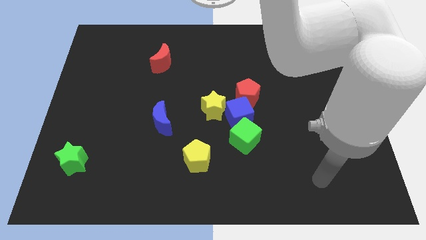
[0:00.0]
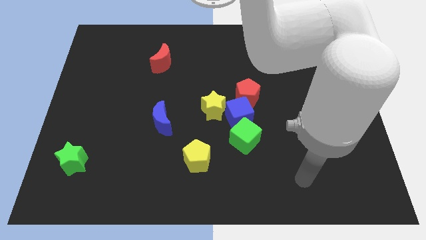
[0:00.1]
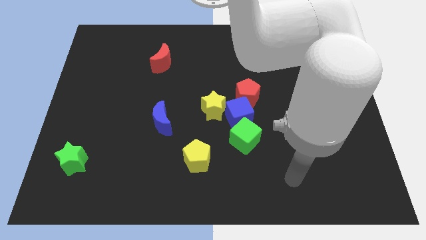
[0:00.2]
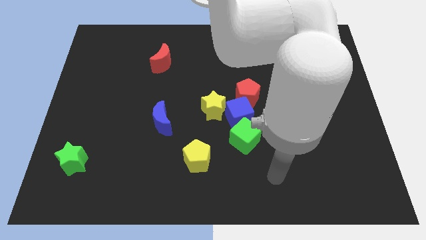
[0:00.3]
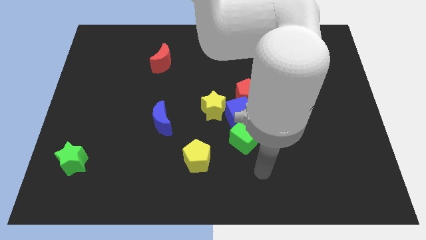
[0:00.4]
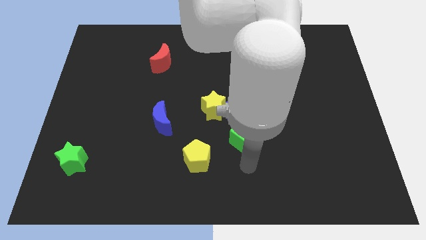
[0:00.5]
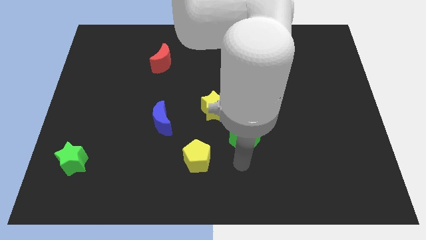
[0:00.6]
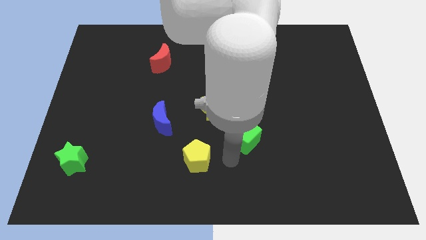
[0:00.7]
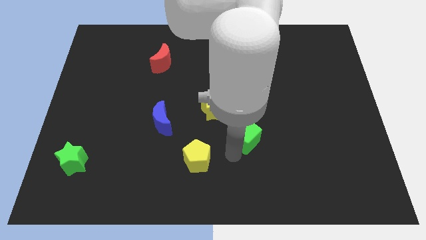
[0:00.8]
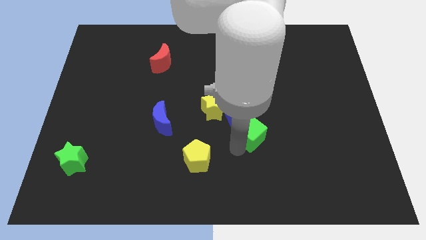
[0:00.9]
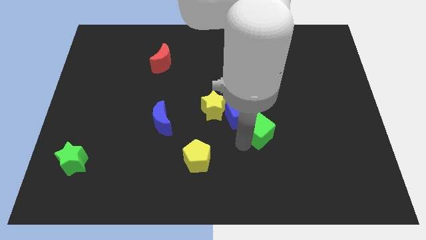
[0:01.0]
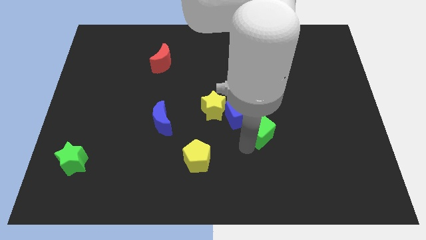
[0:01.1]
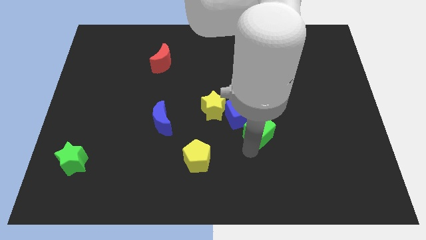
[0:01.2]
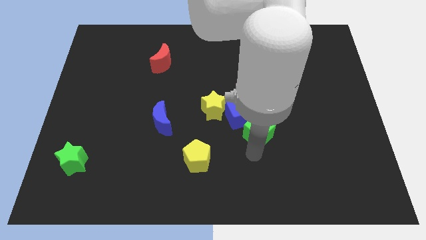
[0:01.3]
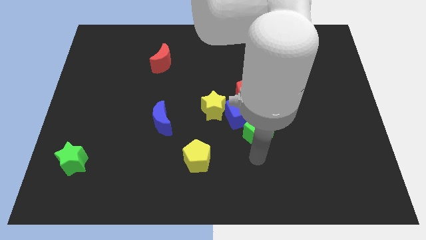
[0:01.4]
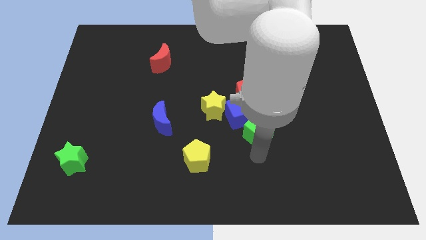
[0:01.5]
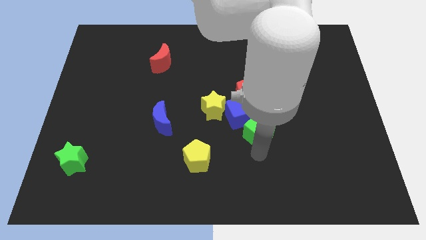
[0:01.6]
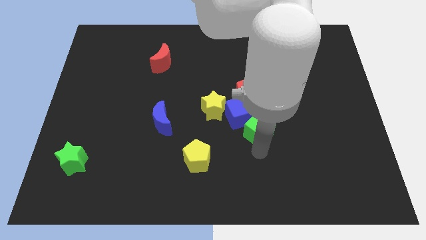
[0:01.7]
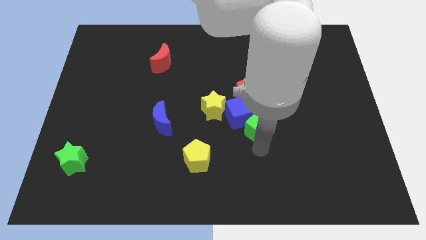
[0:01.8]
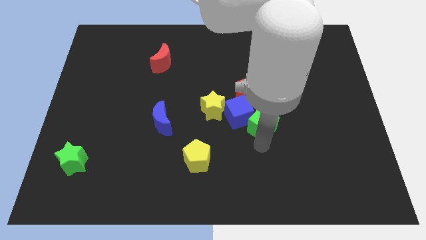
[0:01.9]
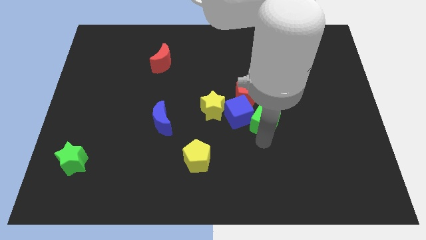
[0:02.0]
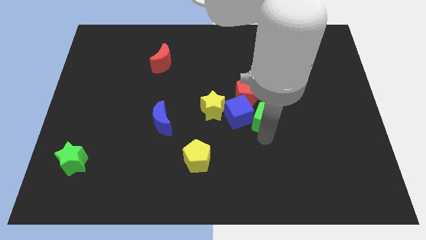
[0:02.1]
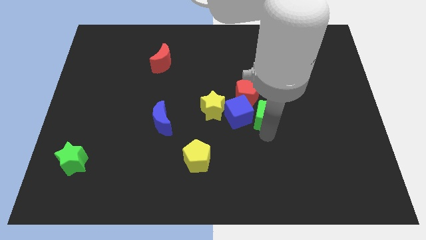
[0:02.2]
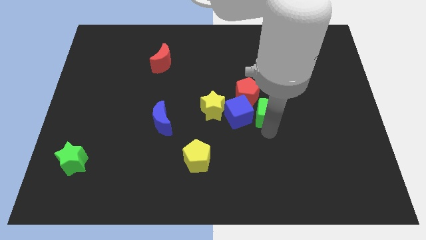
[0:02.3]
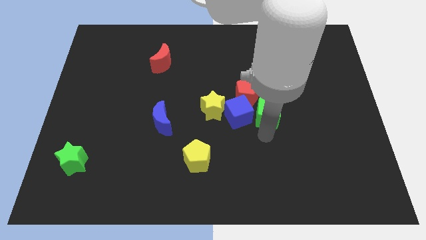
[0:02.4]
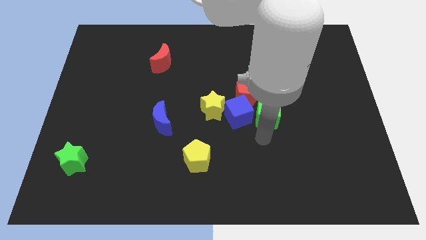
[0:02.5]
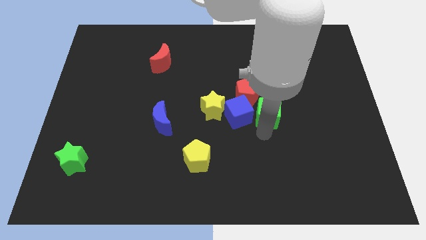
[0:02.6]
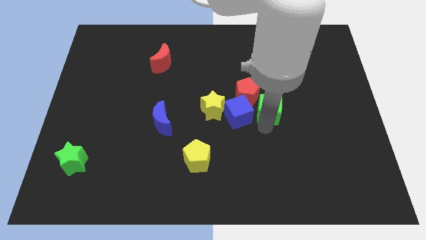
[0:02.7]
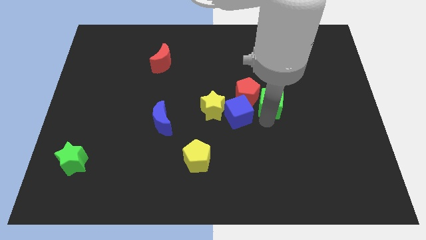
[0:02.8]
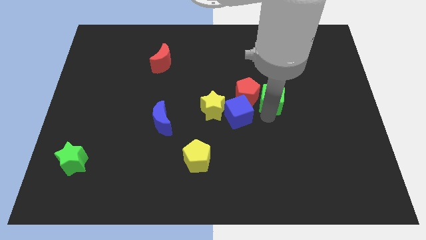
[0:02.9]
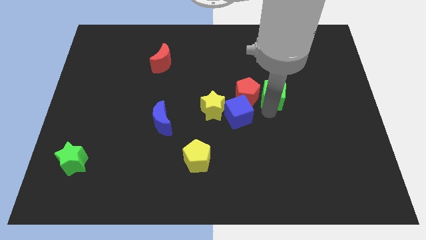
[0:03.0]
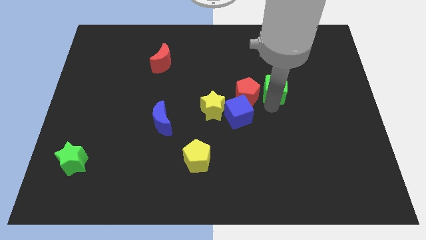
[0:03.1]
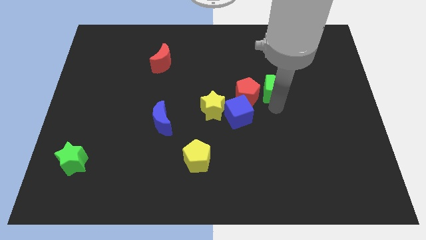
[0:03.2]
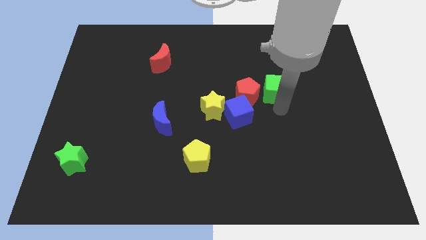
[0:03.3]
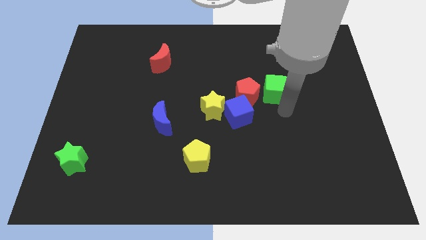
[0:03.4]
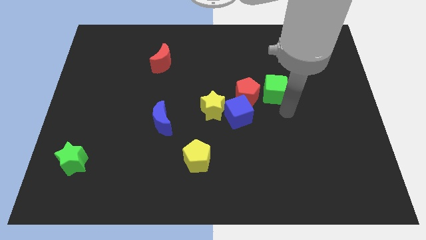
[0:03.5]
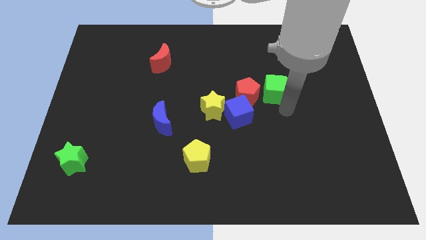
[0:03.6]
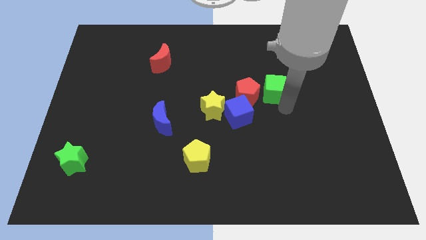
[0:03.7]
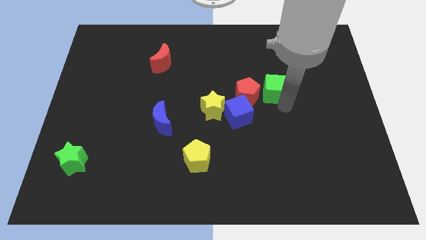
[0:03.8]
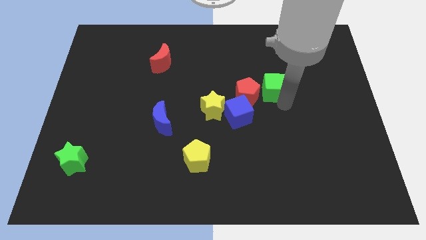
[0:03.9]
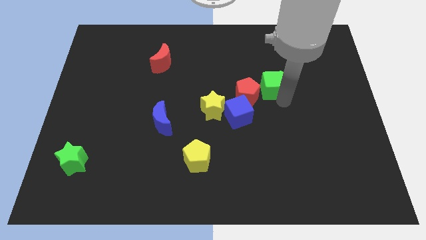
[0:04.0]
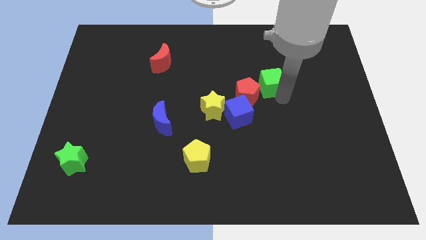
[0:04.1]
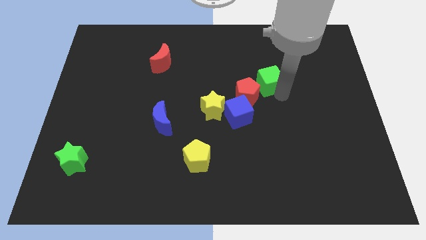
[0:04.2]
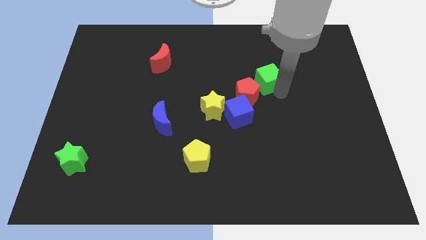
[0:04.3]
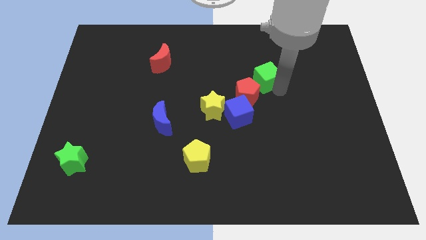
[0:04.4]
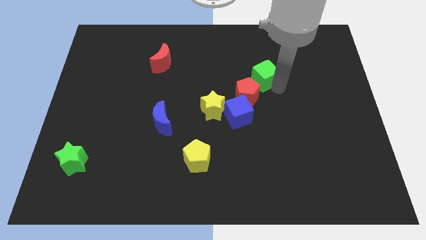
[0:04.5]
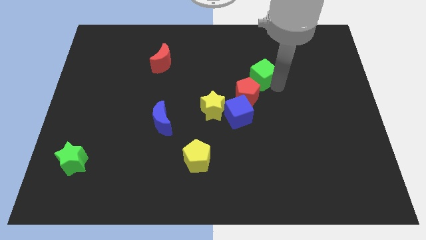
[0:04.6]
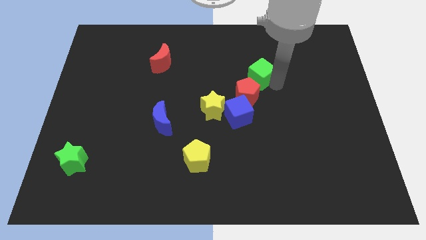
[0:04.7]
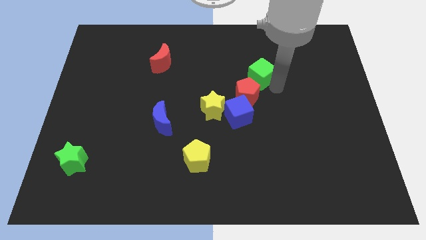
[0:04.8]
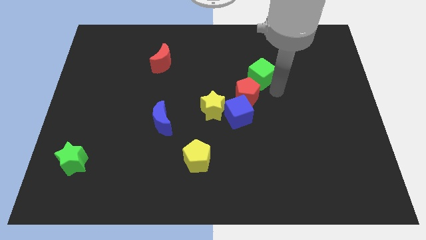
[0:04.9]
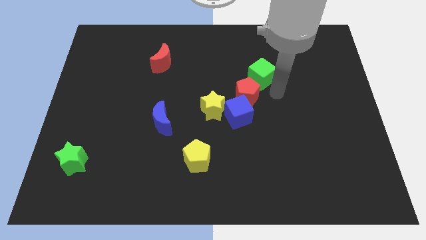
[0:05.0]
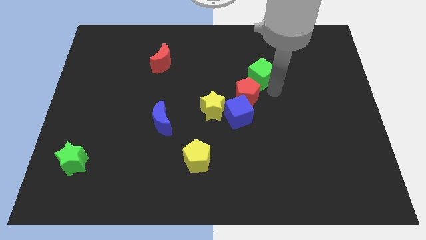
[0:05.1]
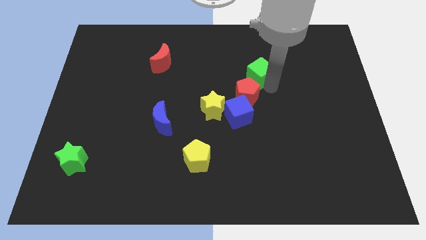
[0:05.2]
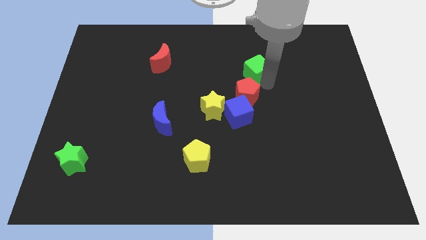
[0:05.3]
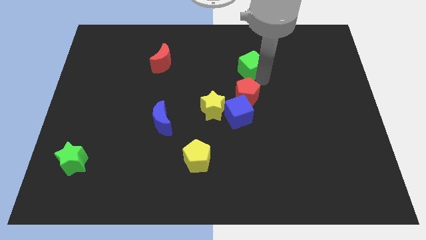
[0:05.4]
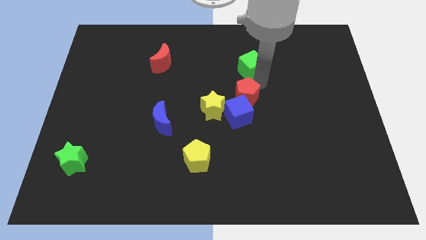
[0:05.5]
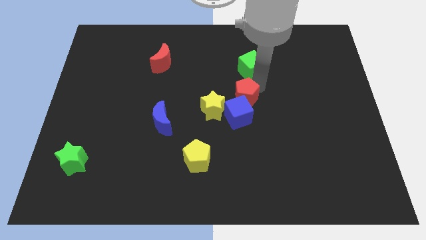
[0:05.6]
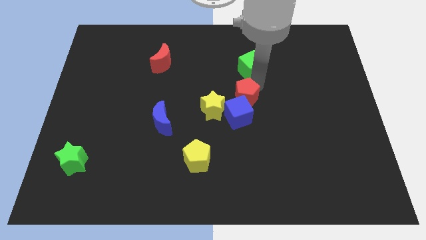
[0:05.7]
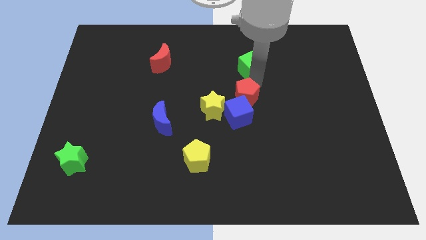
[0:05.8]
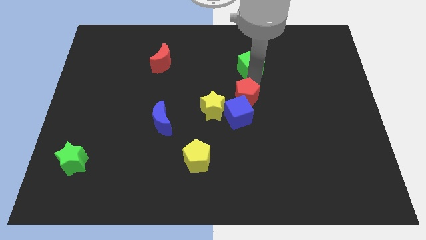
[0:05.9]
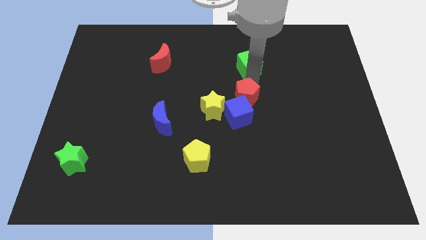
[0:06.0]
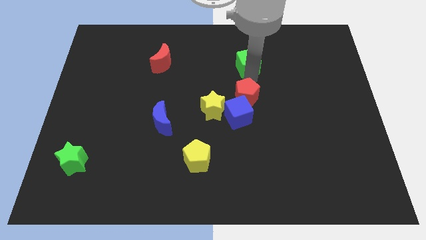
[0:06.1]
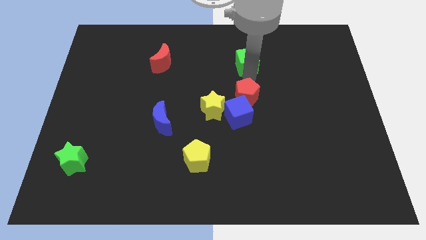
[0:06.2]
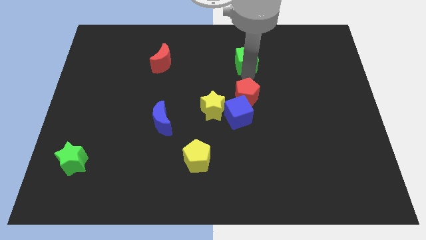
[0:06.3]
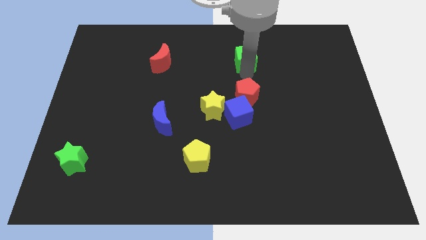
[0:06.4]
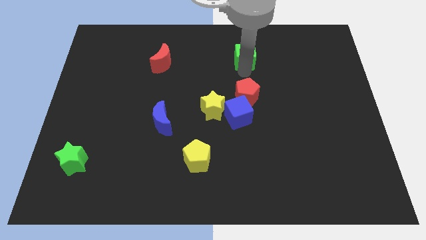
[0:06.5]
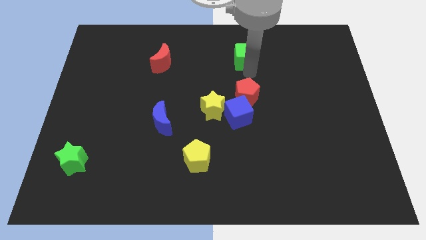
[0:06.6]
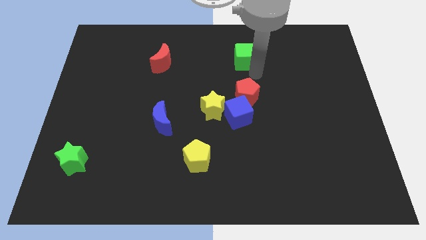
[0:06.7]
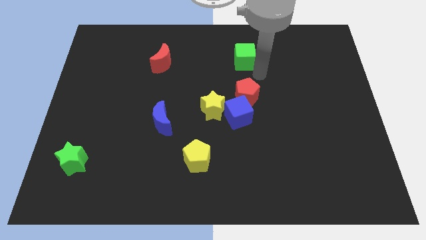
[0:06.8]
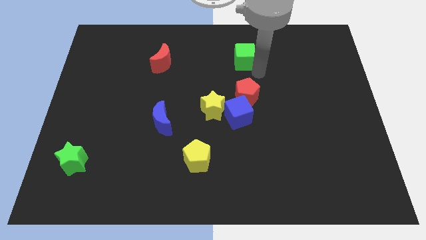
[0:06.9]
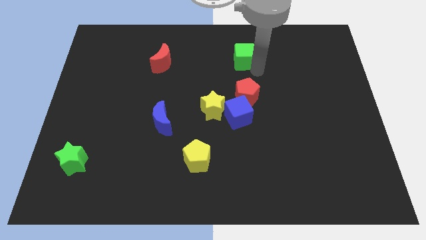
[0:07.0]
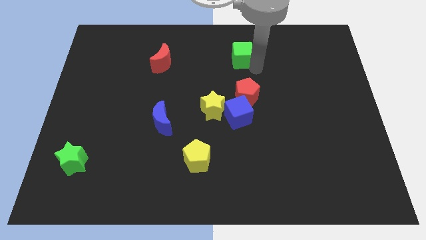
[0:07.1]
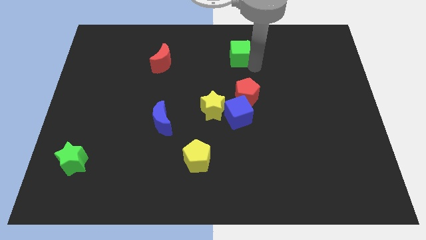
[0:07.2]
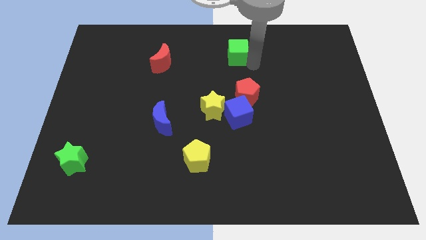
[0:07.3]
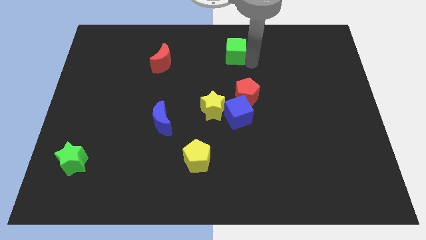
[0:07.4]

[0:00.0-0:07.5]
put the green cube to the top
